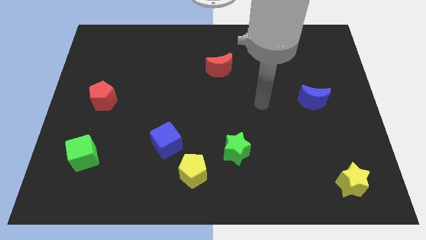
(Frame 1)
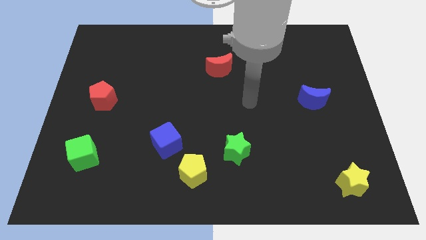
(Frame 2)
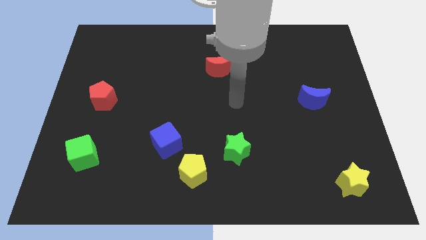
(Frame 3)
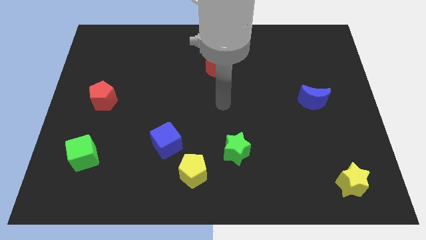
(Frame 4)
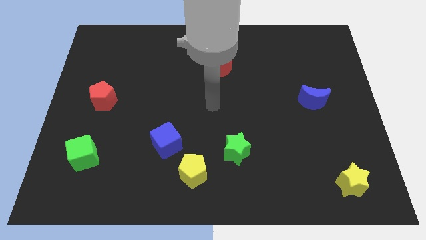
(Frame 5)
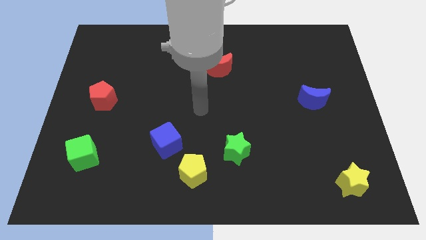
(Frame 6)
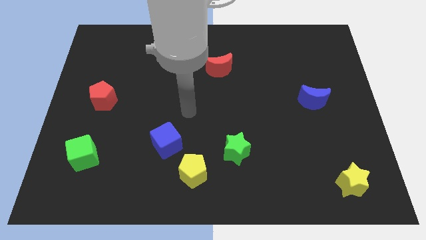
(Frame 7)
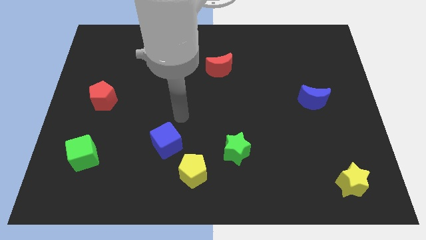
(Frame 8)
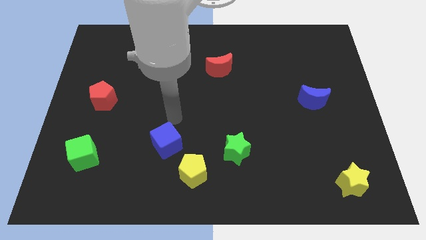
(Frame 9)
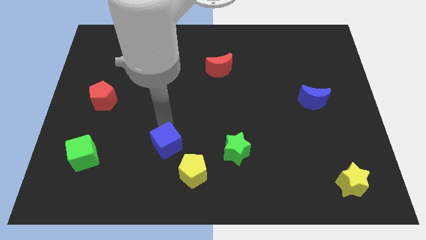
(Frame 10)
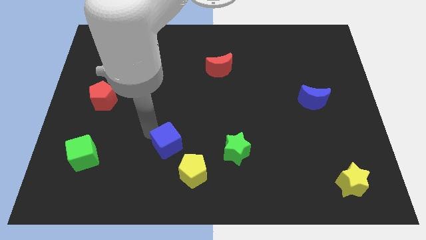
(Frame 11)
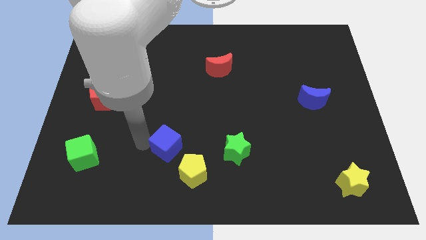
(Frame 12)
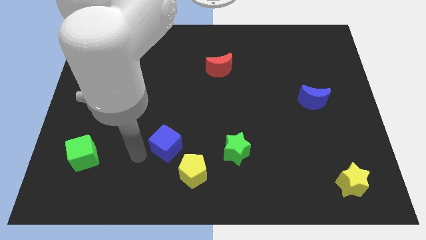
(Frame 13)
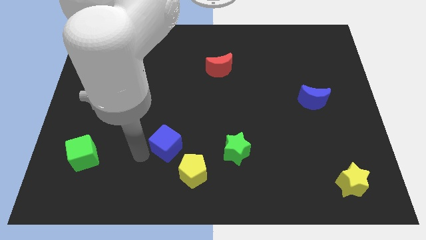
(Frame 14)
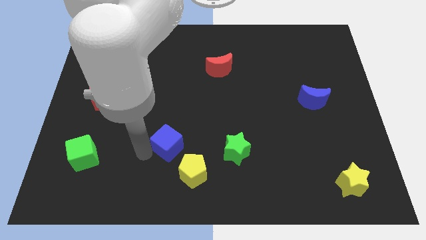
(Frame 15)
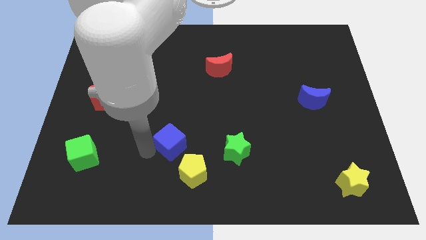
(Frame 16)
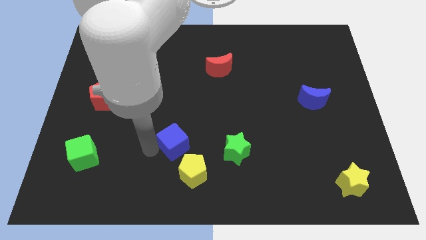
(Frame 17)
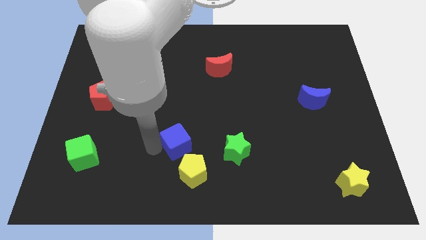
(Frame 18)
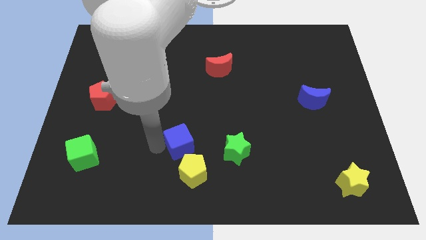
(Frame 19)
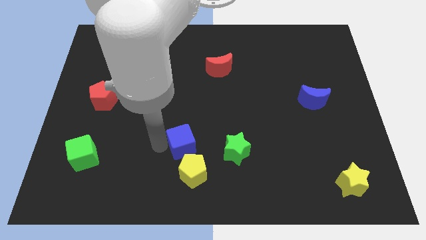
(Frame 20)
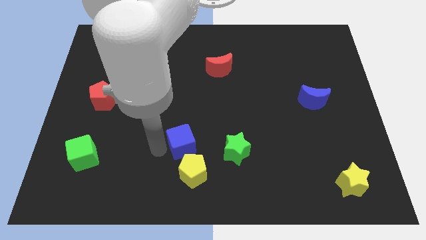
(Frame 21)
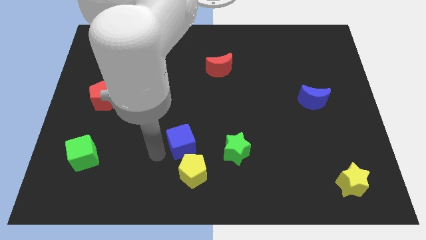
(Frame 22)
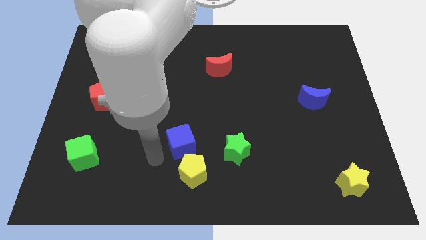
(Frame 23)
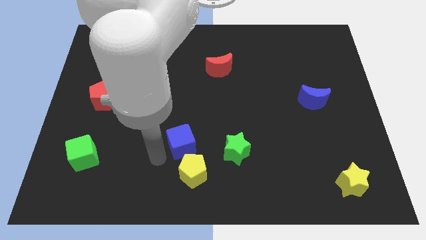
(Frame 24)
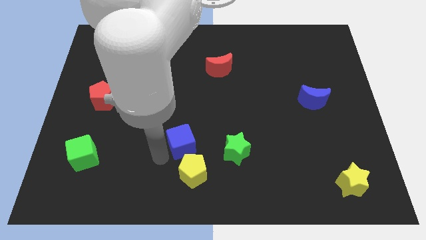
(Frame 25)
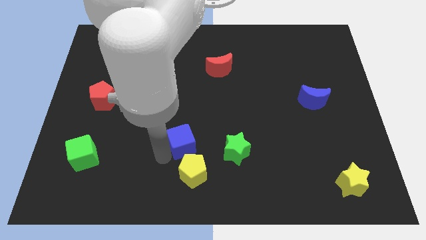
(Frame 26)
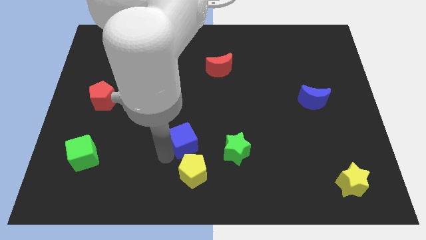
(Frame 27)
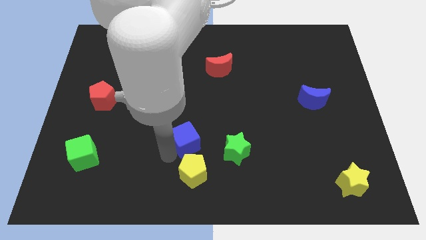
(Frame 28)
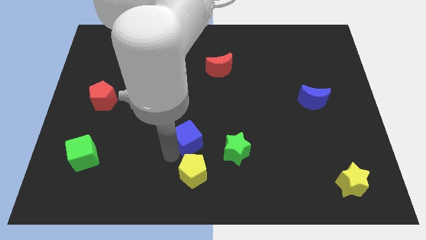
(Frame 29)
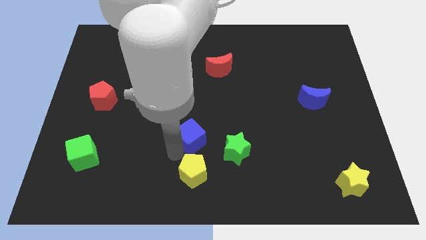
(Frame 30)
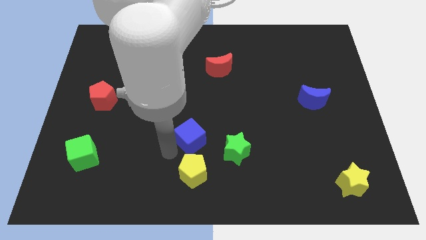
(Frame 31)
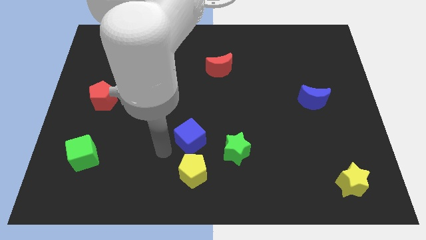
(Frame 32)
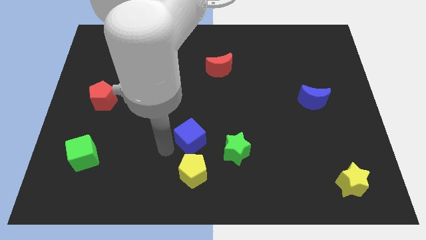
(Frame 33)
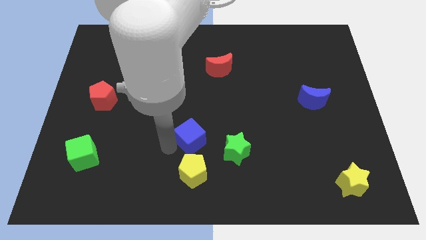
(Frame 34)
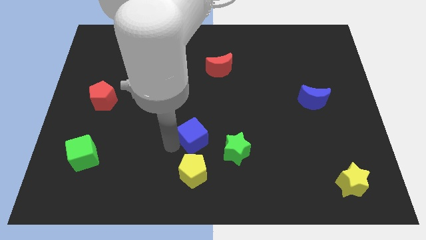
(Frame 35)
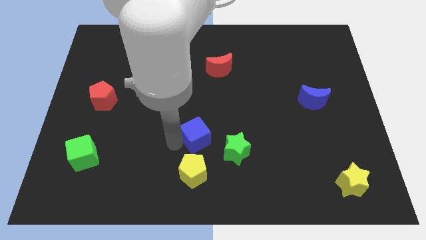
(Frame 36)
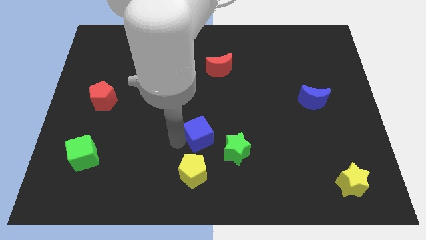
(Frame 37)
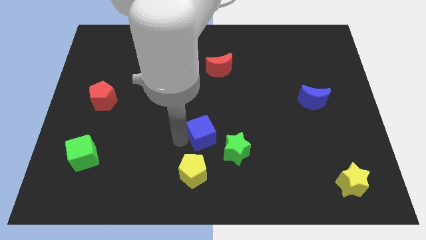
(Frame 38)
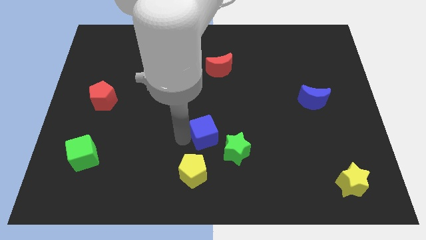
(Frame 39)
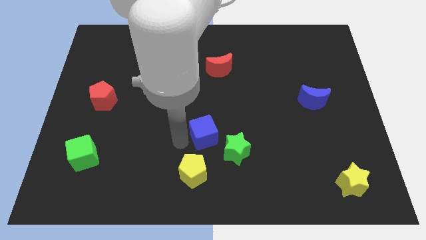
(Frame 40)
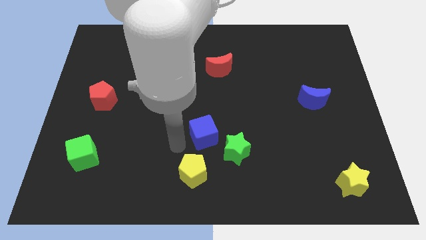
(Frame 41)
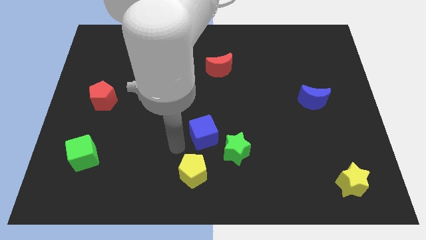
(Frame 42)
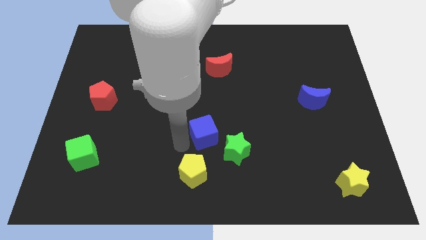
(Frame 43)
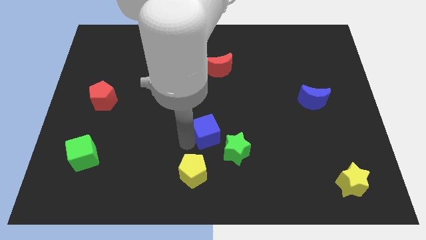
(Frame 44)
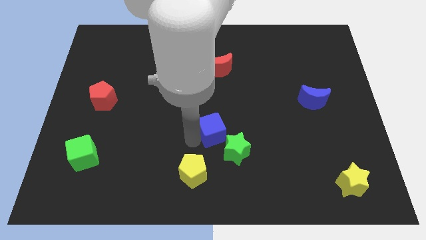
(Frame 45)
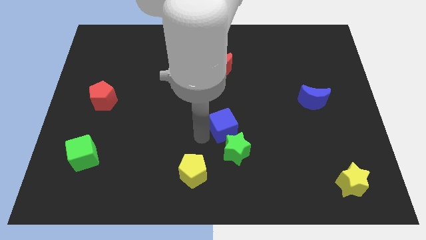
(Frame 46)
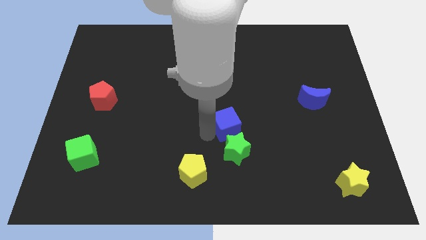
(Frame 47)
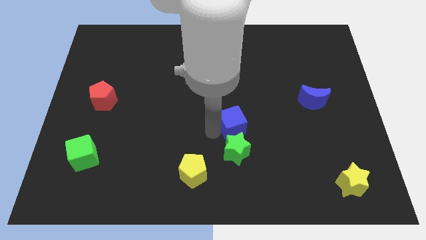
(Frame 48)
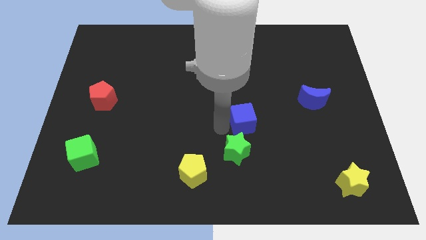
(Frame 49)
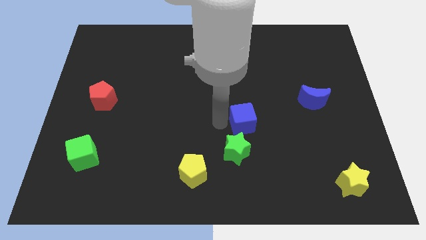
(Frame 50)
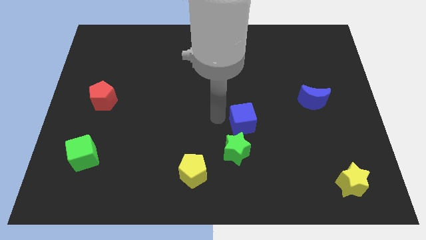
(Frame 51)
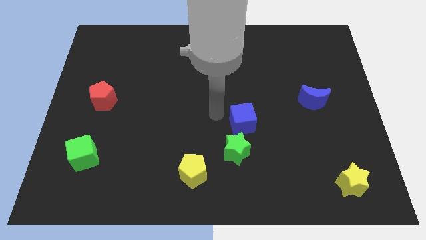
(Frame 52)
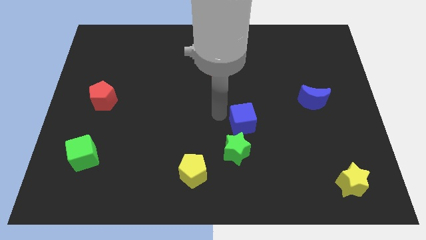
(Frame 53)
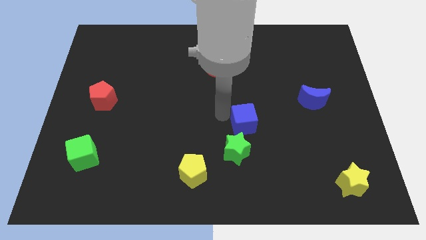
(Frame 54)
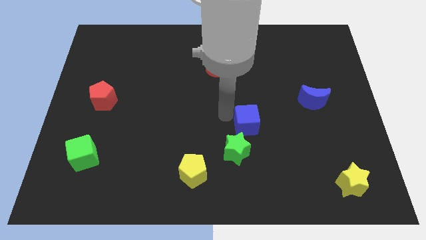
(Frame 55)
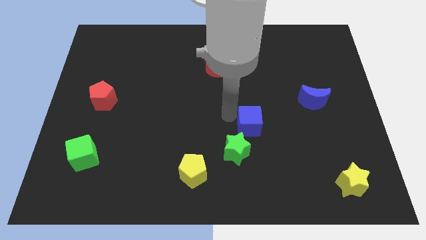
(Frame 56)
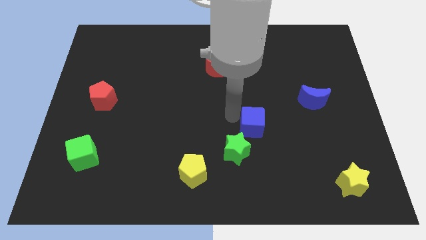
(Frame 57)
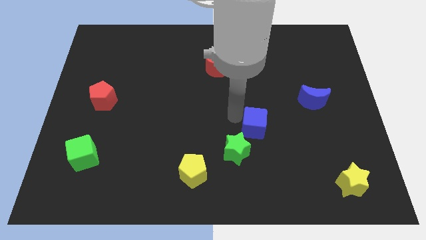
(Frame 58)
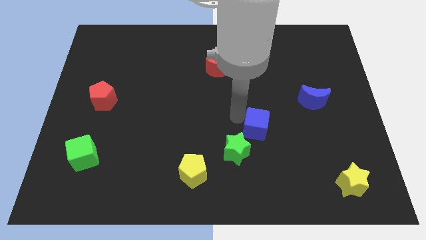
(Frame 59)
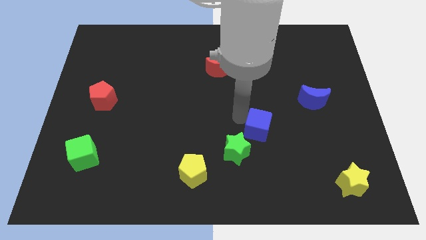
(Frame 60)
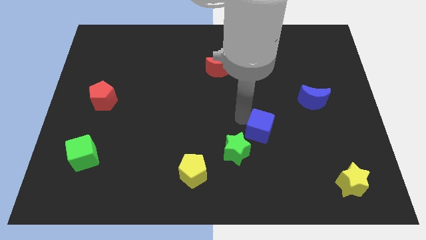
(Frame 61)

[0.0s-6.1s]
move the blue cube right

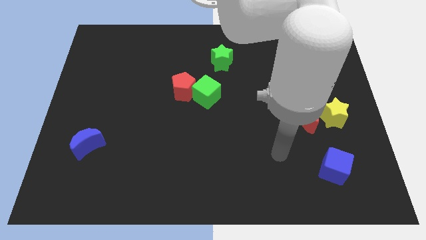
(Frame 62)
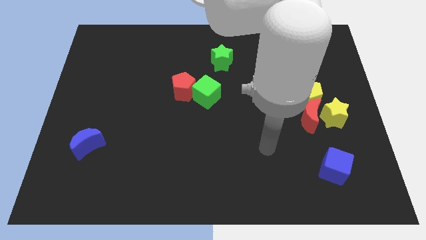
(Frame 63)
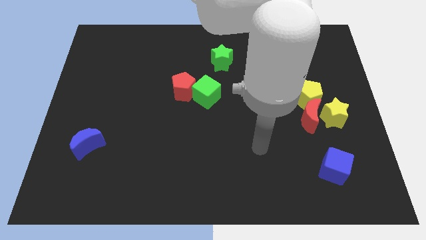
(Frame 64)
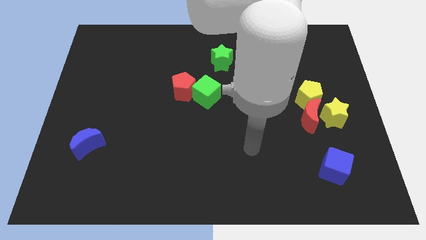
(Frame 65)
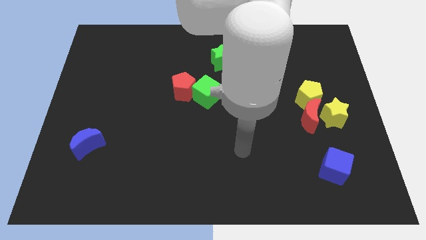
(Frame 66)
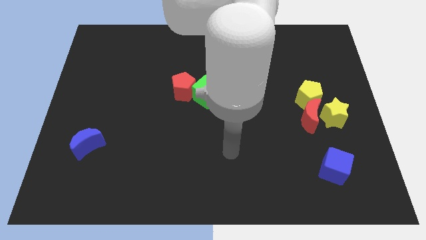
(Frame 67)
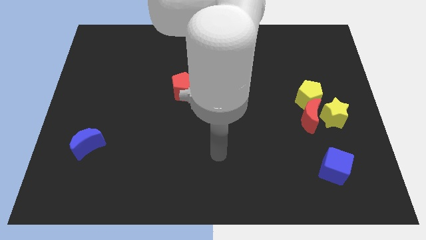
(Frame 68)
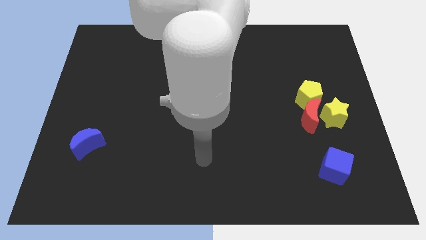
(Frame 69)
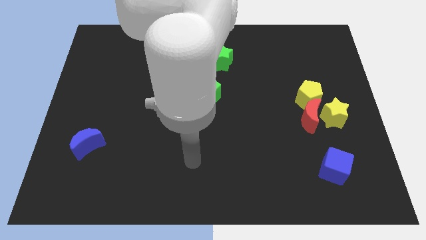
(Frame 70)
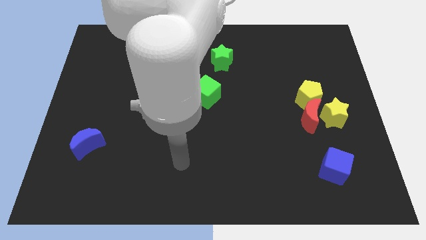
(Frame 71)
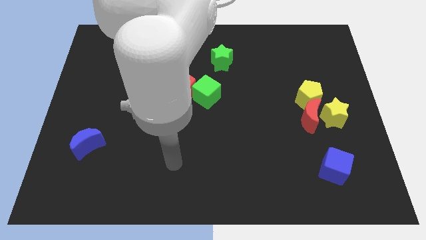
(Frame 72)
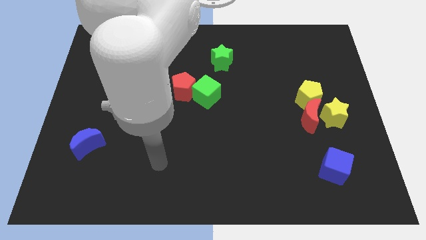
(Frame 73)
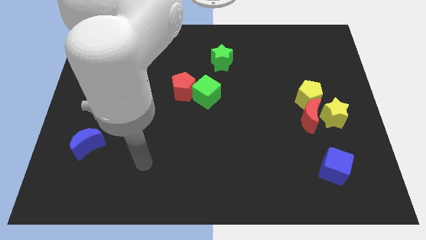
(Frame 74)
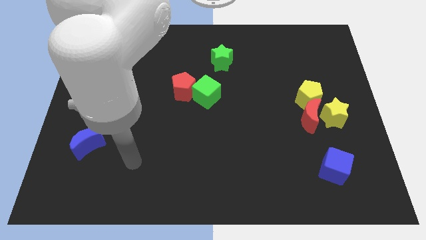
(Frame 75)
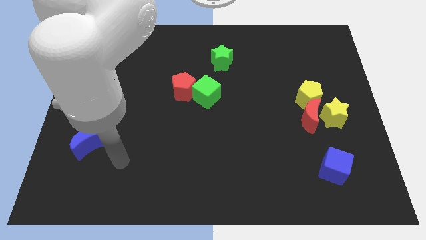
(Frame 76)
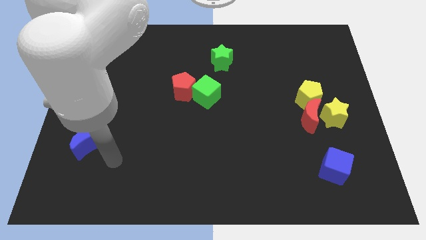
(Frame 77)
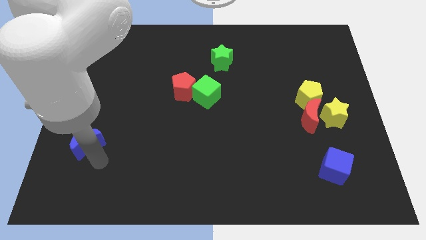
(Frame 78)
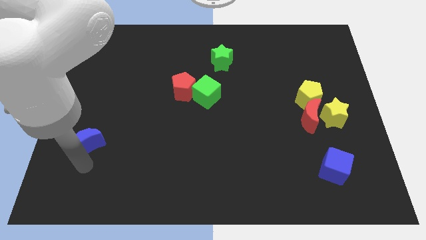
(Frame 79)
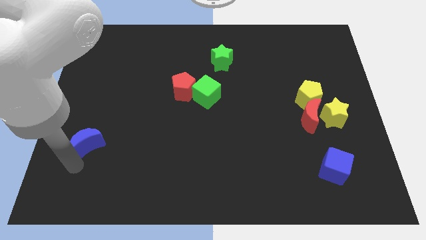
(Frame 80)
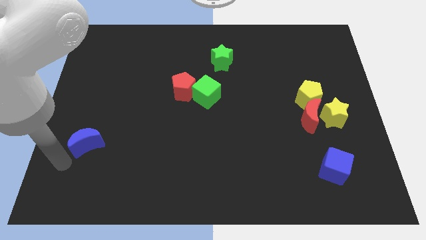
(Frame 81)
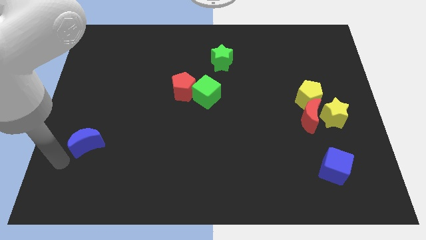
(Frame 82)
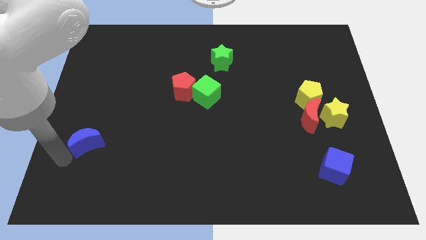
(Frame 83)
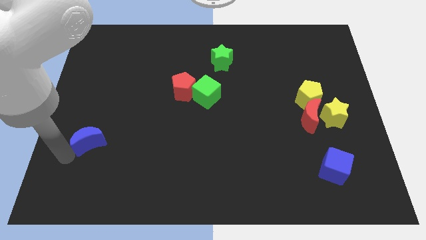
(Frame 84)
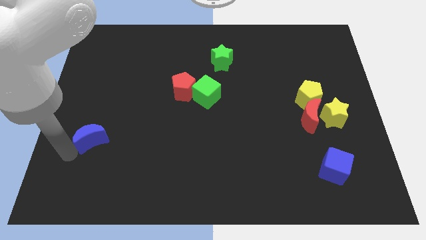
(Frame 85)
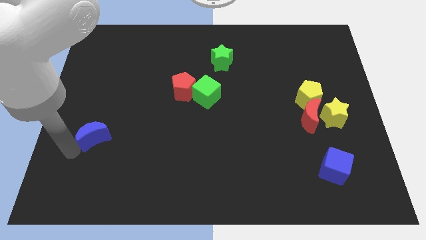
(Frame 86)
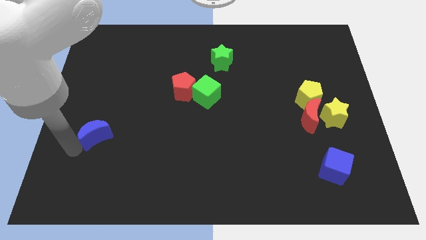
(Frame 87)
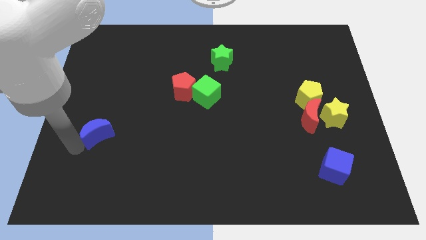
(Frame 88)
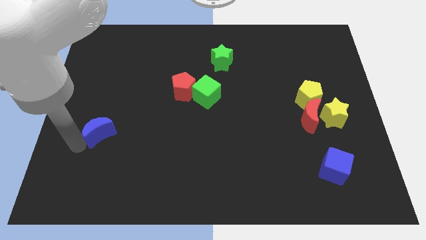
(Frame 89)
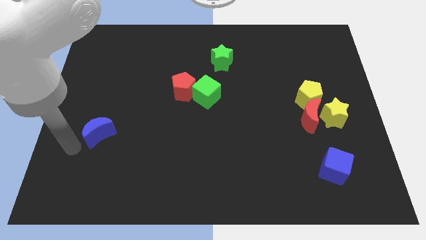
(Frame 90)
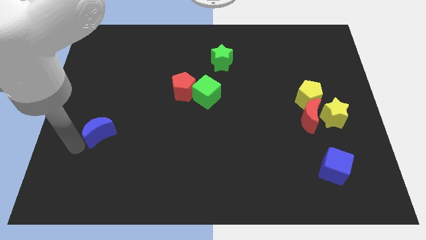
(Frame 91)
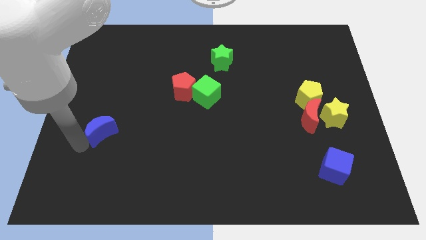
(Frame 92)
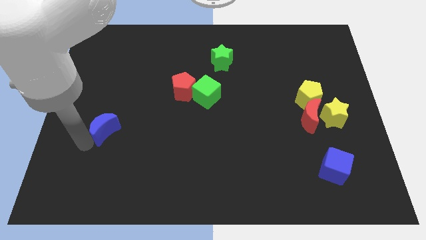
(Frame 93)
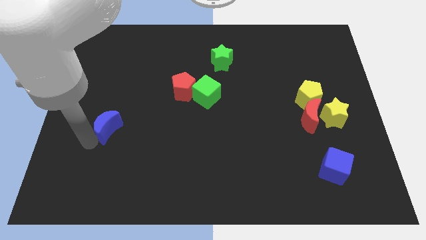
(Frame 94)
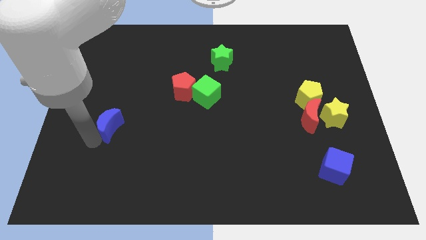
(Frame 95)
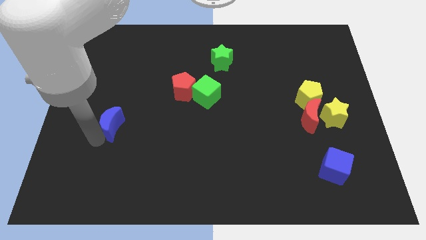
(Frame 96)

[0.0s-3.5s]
slightly move the blue moon diagonally up and right
